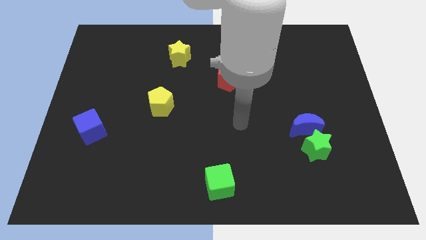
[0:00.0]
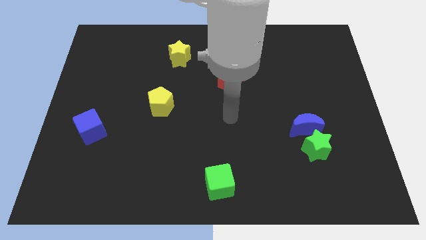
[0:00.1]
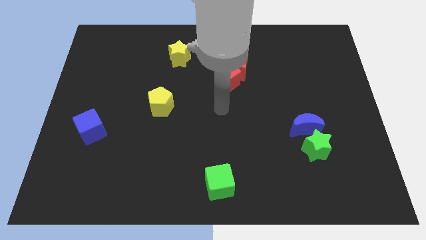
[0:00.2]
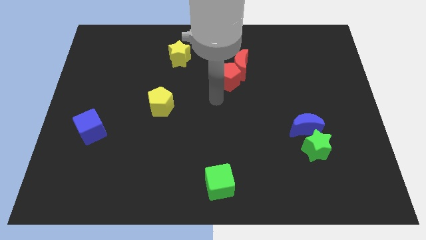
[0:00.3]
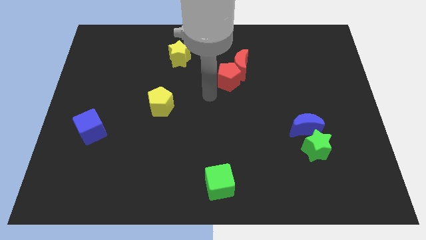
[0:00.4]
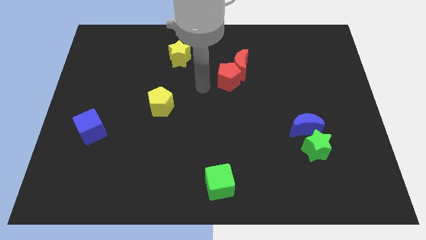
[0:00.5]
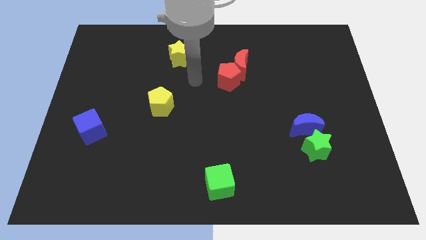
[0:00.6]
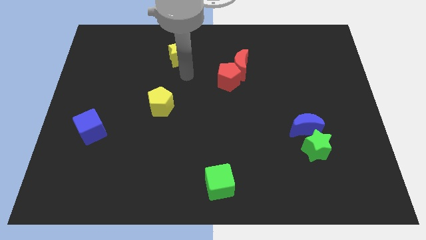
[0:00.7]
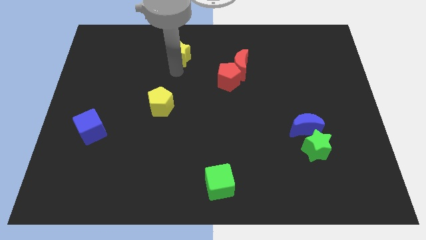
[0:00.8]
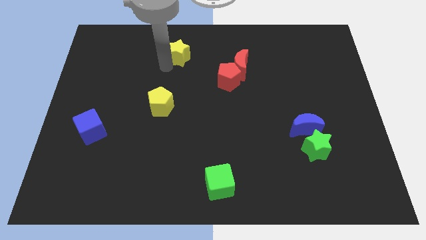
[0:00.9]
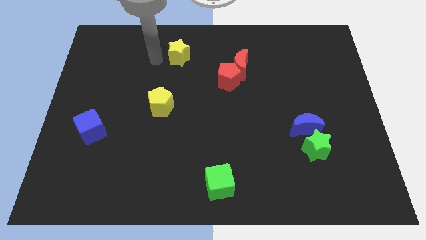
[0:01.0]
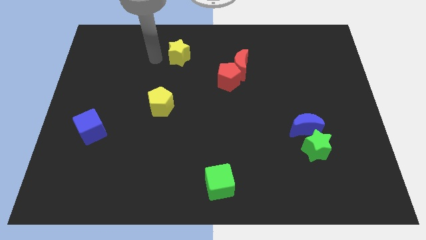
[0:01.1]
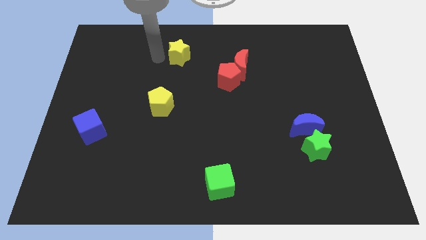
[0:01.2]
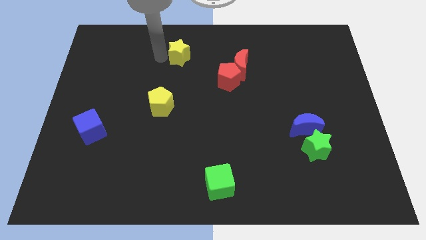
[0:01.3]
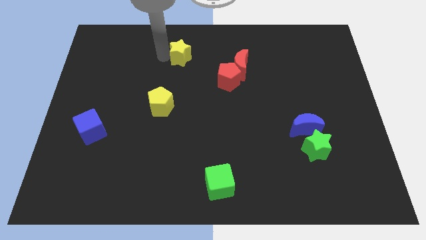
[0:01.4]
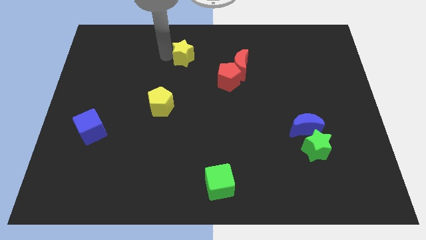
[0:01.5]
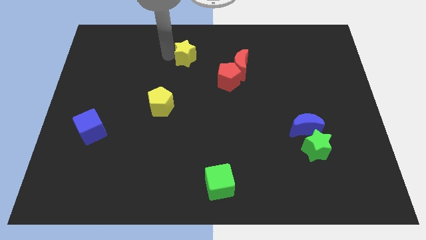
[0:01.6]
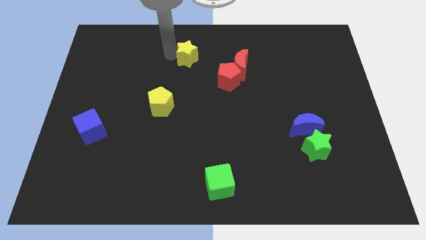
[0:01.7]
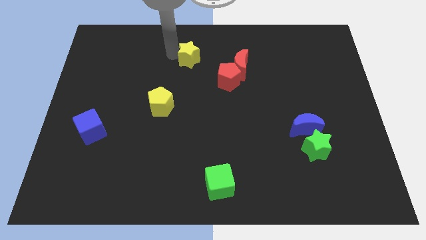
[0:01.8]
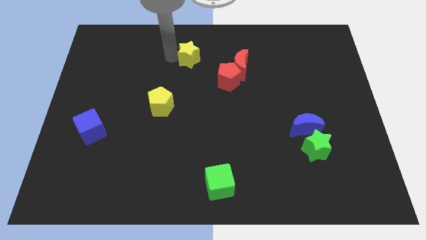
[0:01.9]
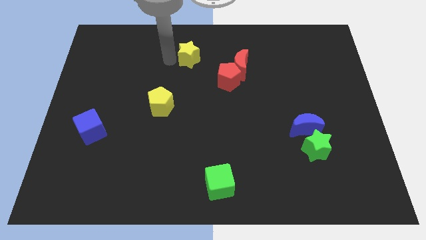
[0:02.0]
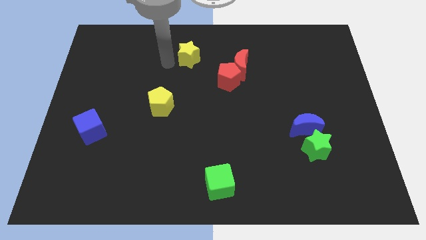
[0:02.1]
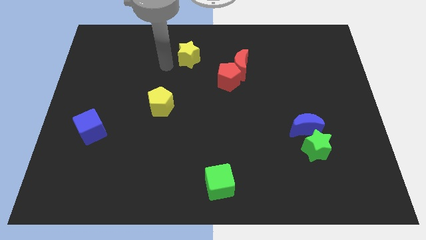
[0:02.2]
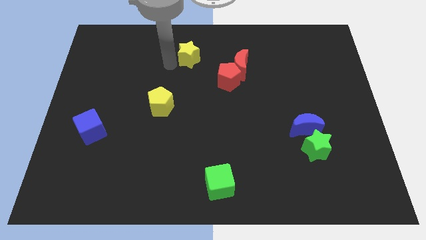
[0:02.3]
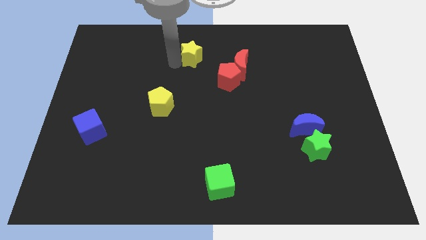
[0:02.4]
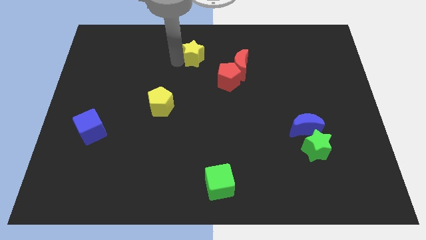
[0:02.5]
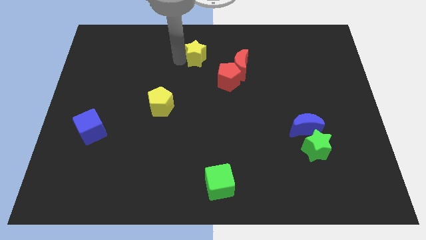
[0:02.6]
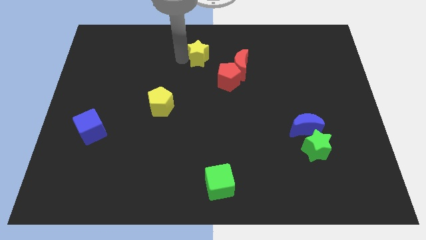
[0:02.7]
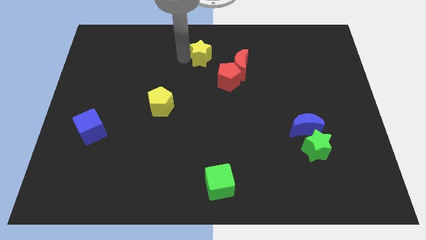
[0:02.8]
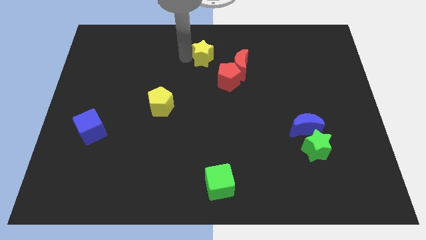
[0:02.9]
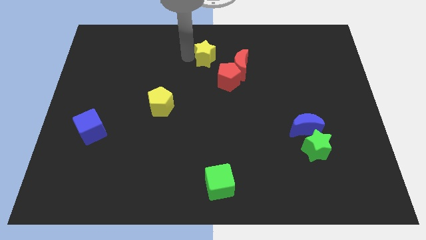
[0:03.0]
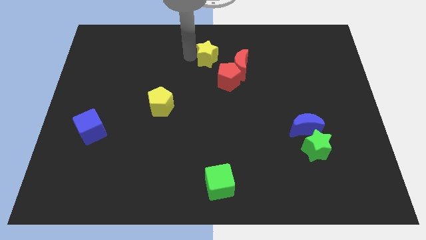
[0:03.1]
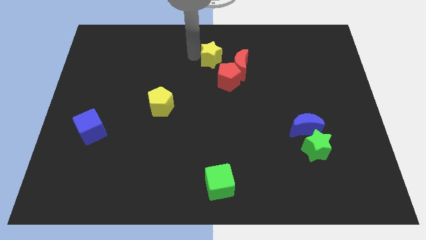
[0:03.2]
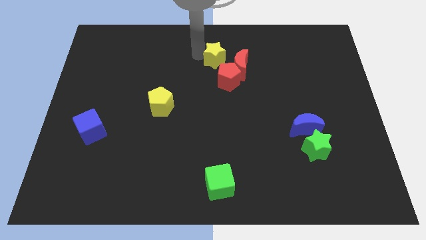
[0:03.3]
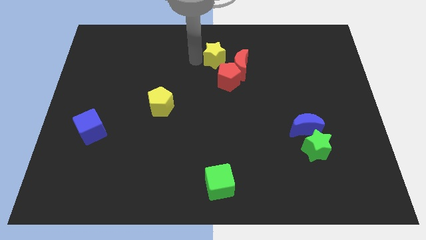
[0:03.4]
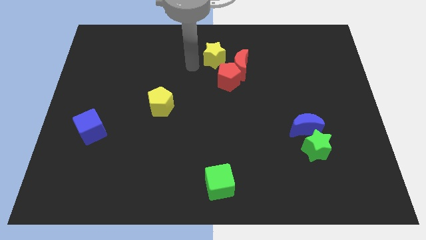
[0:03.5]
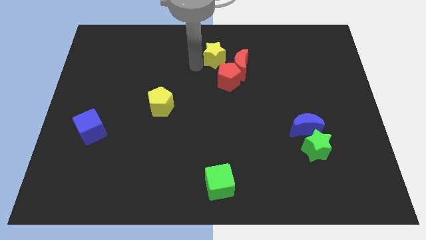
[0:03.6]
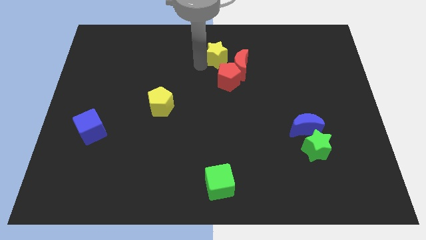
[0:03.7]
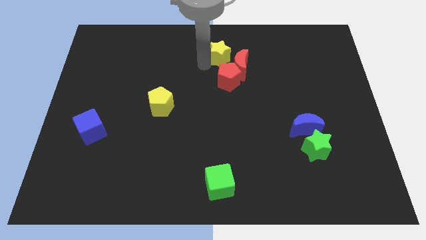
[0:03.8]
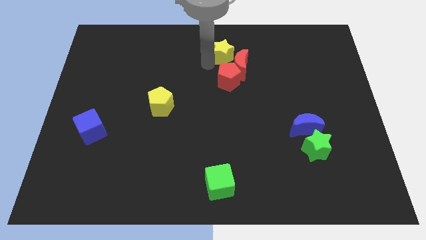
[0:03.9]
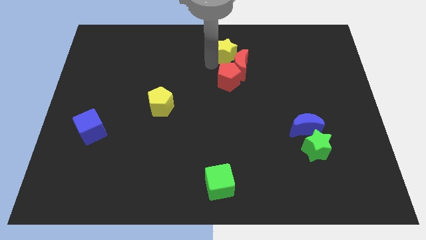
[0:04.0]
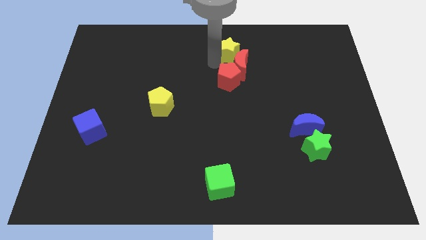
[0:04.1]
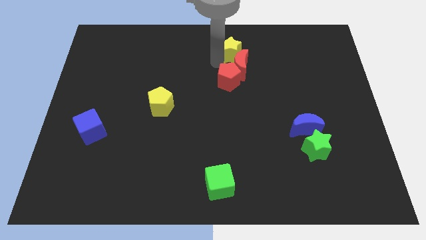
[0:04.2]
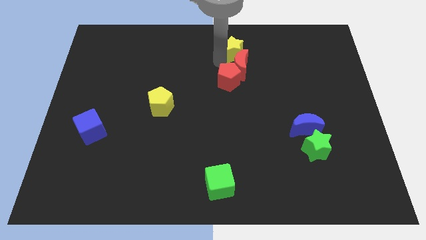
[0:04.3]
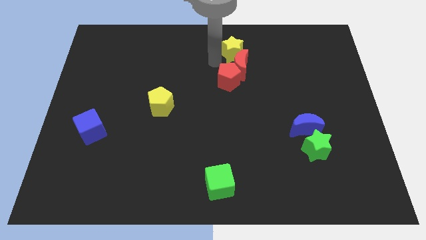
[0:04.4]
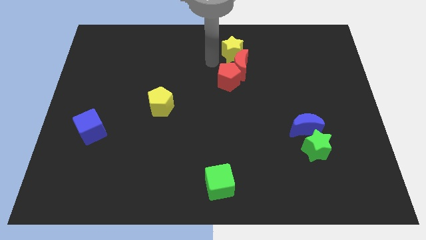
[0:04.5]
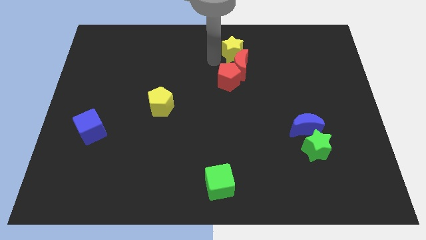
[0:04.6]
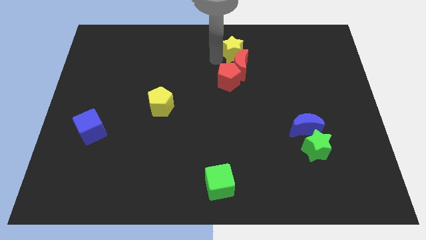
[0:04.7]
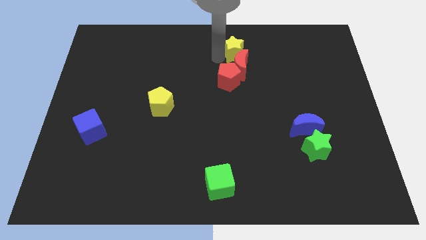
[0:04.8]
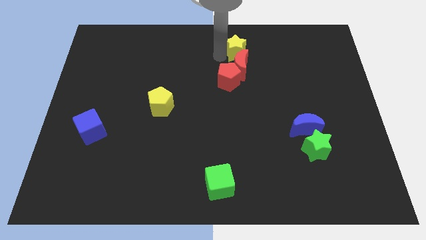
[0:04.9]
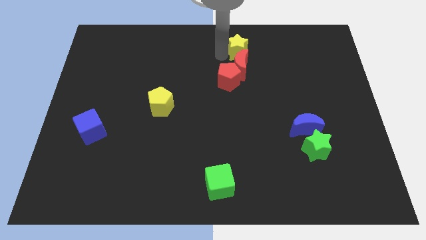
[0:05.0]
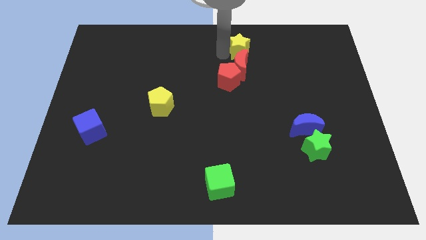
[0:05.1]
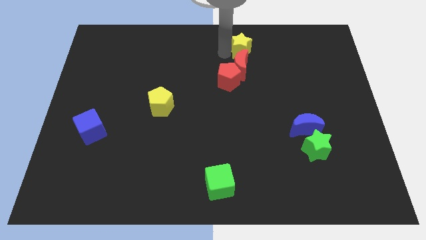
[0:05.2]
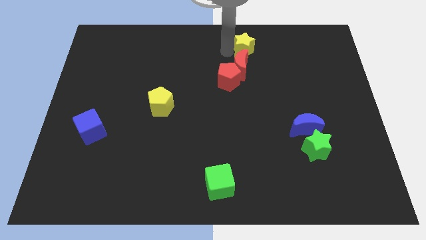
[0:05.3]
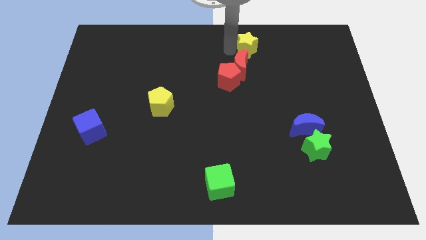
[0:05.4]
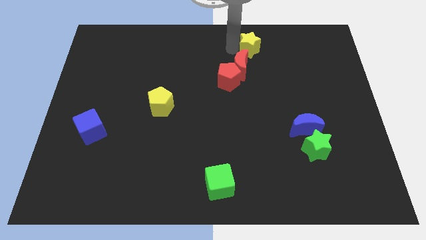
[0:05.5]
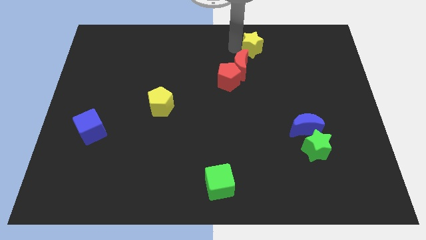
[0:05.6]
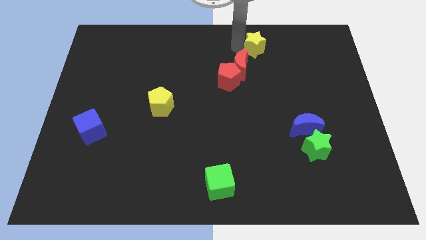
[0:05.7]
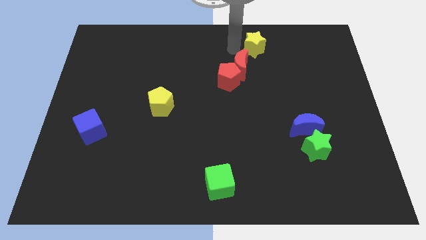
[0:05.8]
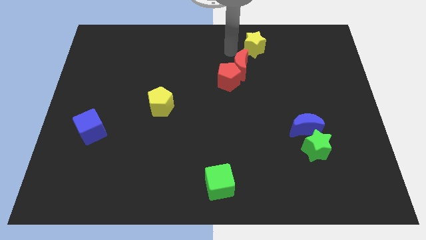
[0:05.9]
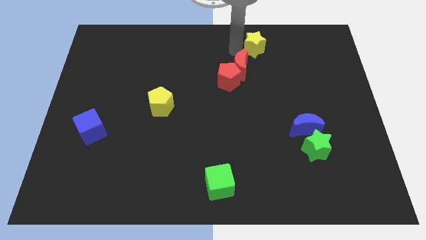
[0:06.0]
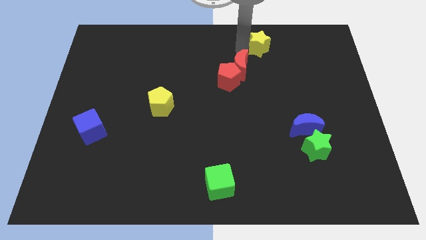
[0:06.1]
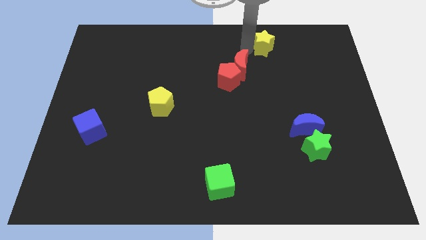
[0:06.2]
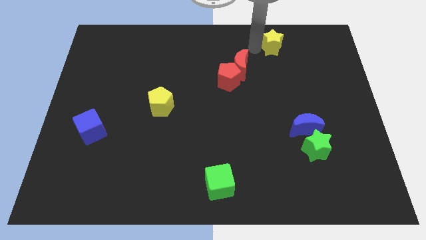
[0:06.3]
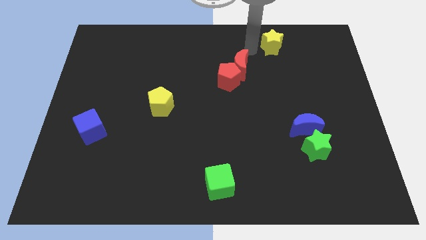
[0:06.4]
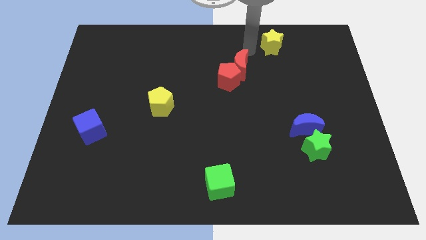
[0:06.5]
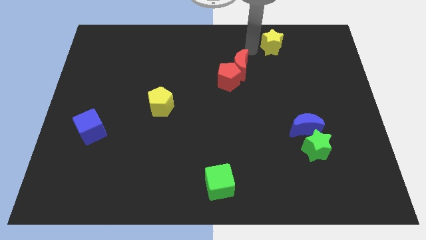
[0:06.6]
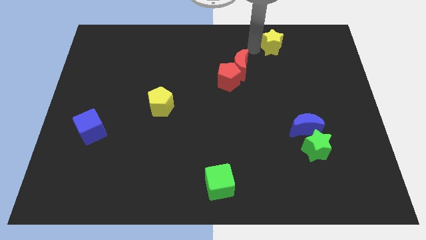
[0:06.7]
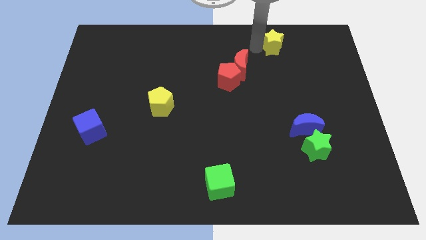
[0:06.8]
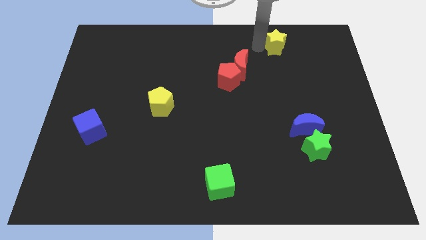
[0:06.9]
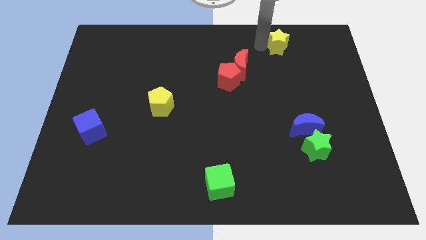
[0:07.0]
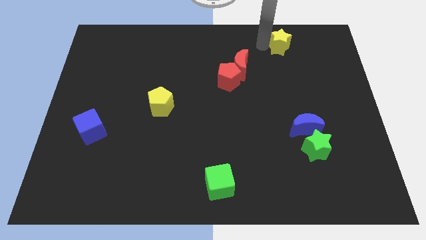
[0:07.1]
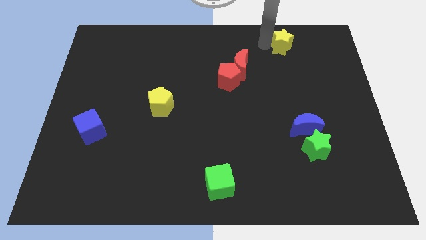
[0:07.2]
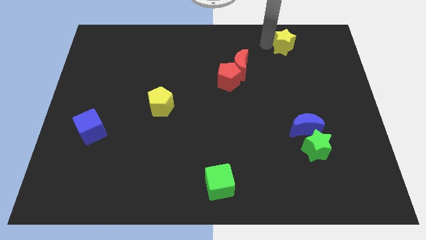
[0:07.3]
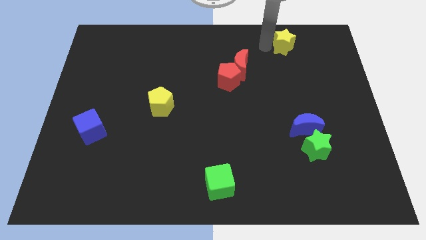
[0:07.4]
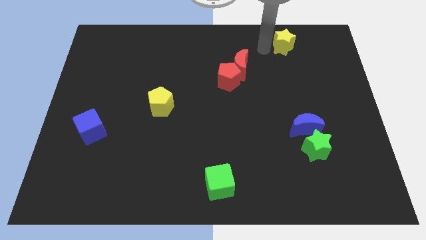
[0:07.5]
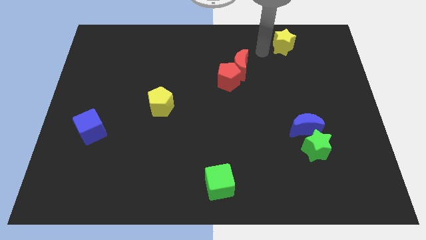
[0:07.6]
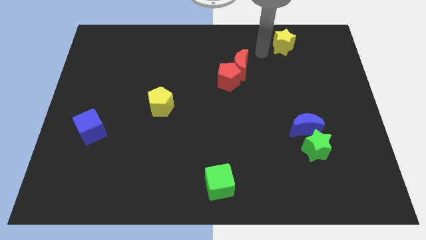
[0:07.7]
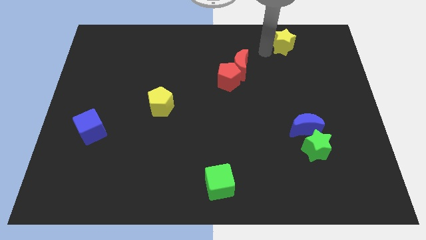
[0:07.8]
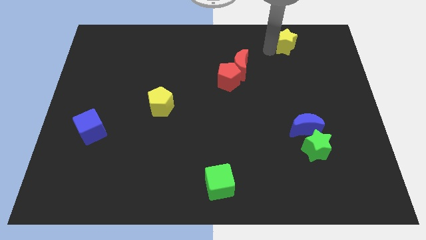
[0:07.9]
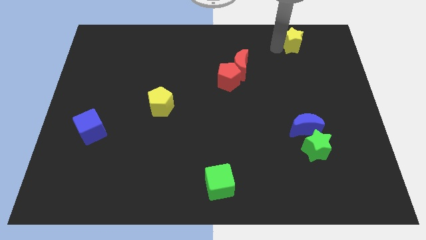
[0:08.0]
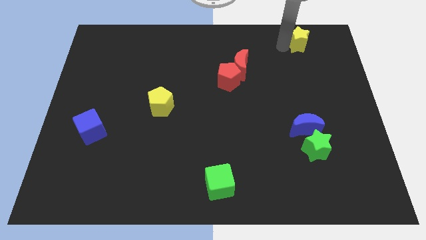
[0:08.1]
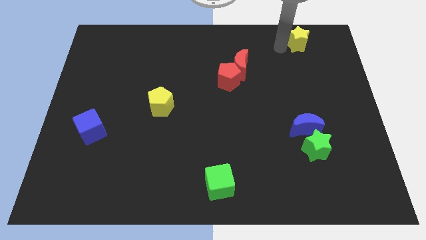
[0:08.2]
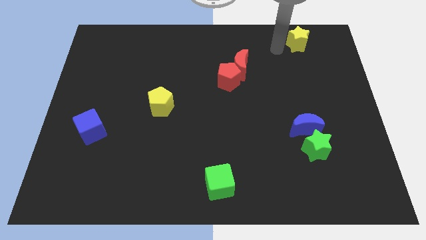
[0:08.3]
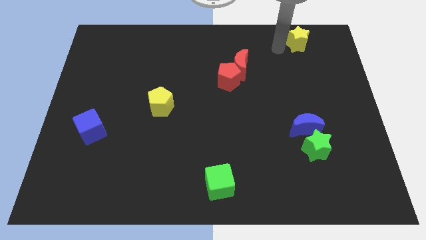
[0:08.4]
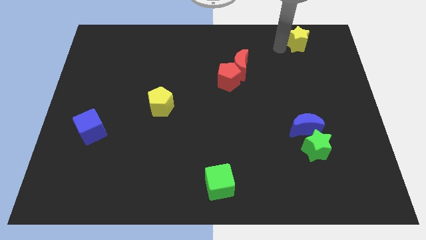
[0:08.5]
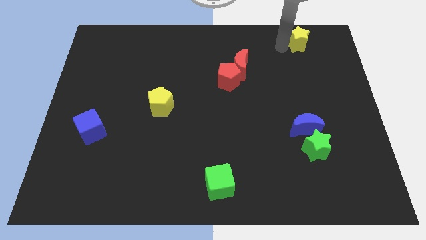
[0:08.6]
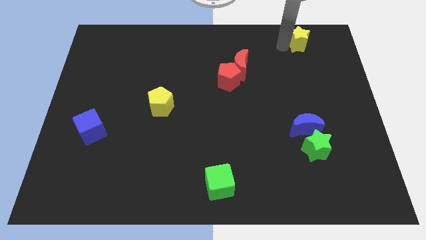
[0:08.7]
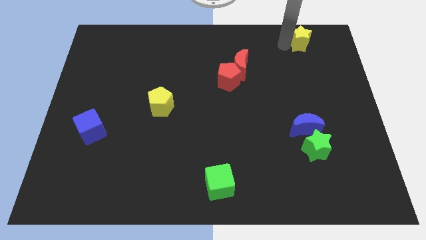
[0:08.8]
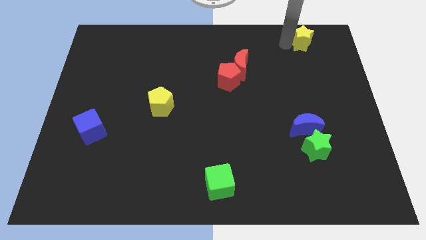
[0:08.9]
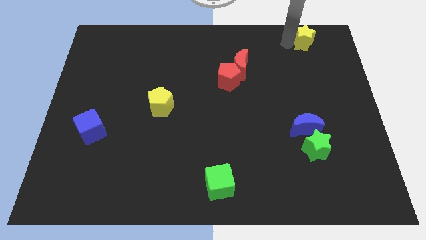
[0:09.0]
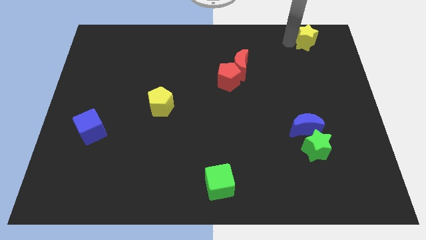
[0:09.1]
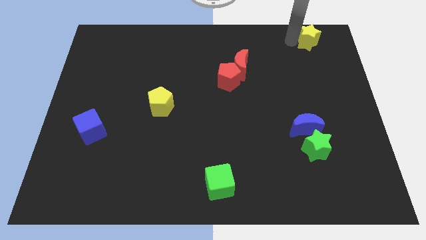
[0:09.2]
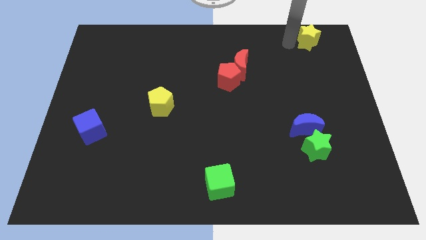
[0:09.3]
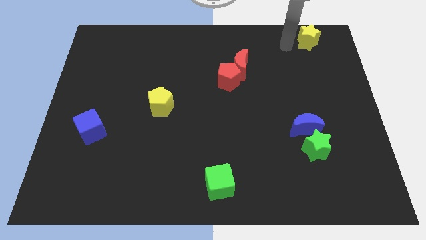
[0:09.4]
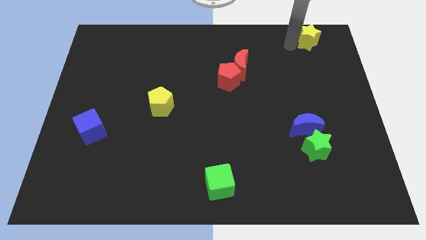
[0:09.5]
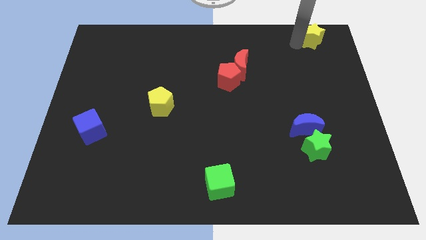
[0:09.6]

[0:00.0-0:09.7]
push the yellow star to the top right of the board
